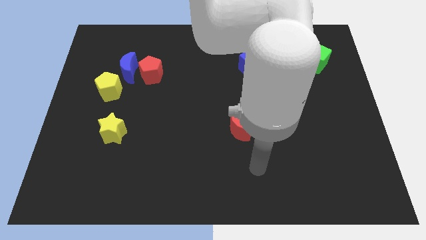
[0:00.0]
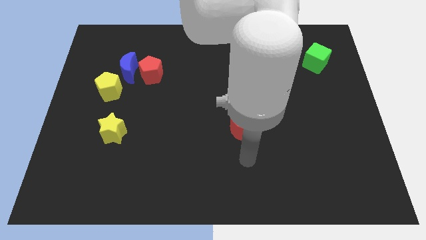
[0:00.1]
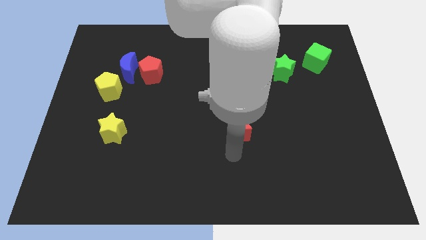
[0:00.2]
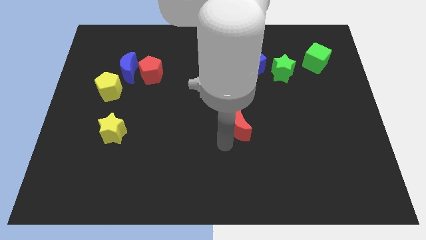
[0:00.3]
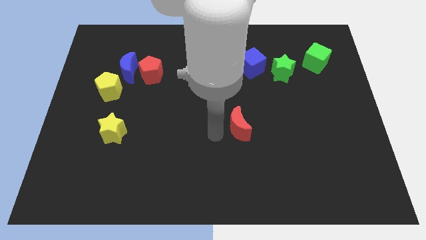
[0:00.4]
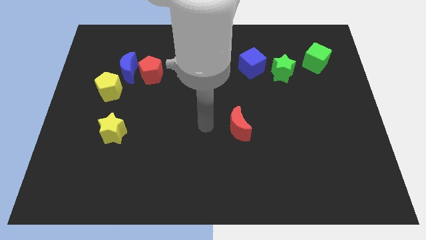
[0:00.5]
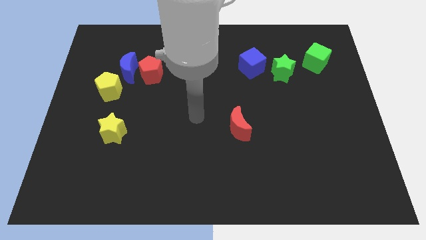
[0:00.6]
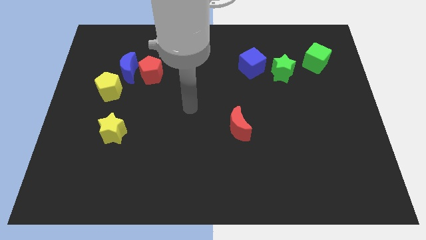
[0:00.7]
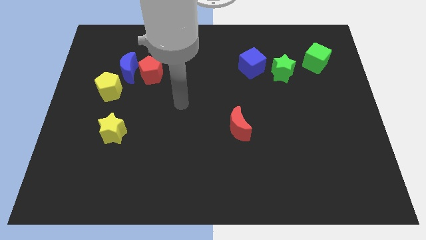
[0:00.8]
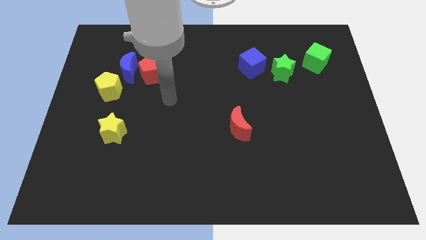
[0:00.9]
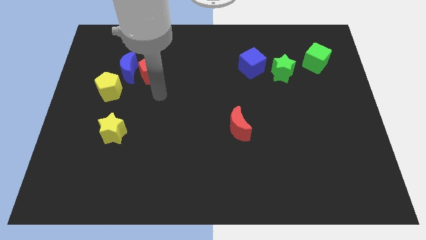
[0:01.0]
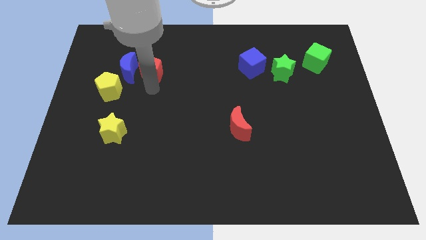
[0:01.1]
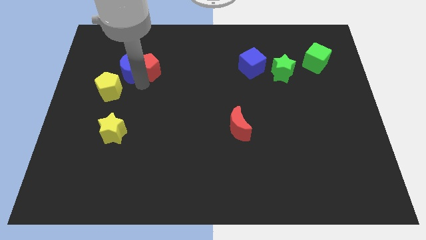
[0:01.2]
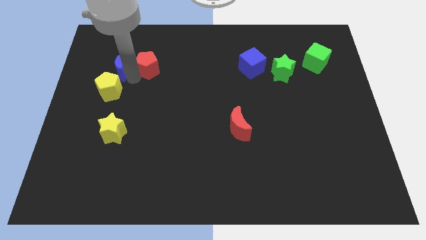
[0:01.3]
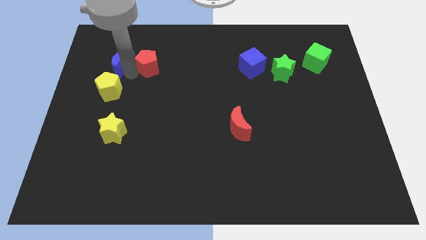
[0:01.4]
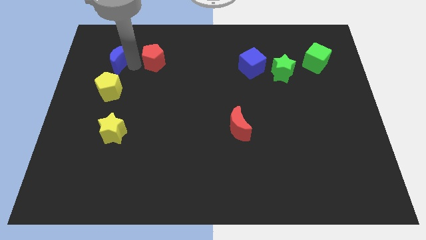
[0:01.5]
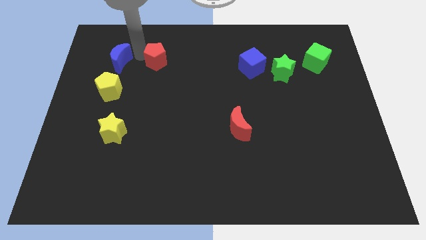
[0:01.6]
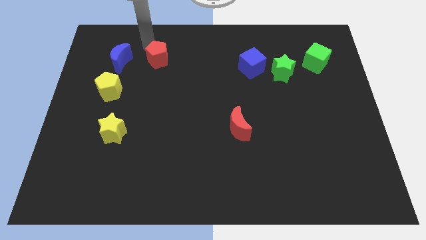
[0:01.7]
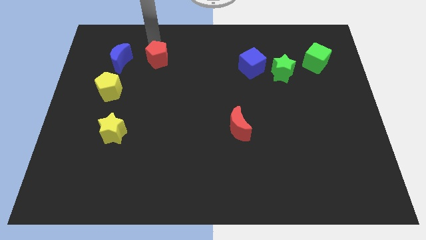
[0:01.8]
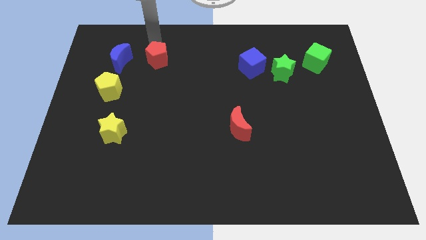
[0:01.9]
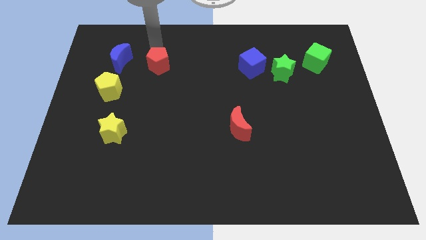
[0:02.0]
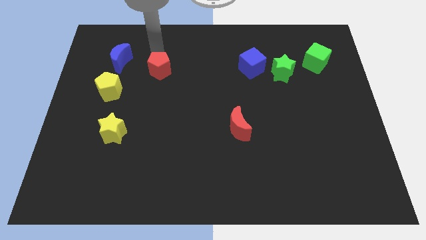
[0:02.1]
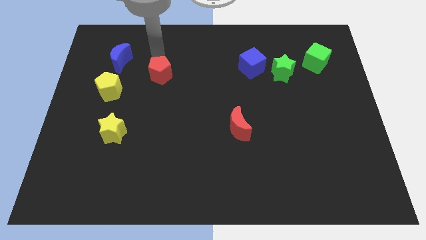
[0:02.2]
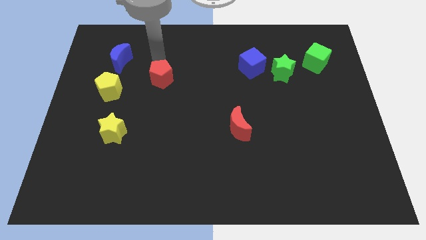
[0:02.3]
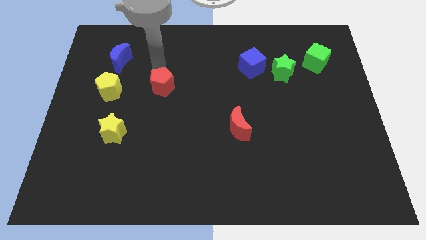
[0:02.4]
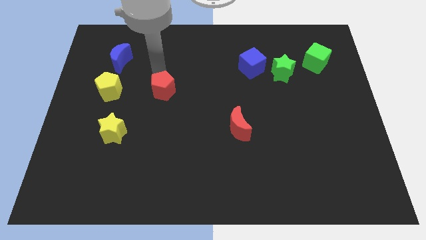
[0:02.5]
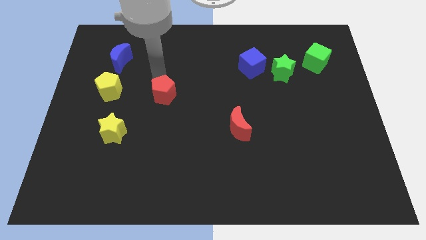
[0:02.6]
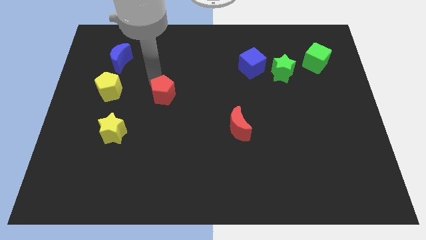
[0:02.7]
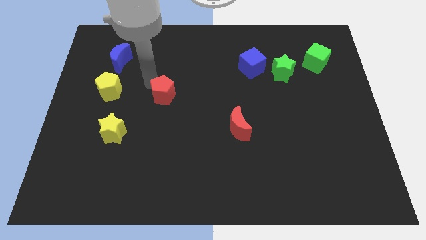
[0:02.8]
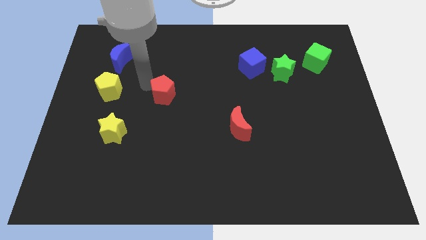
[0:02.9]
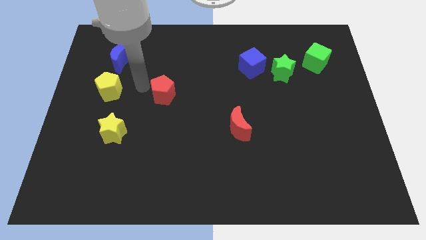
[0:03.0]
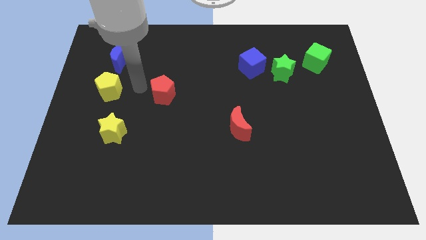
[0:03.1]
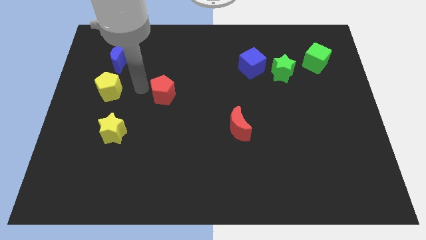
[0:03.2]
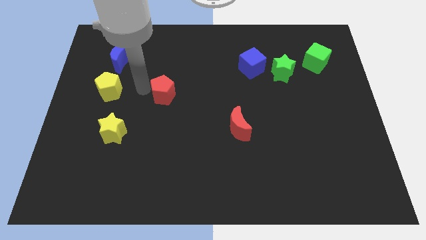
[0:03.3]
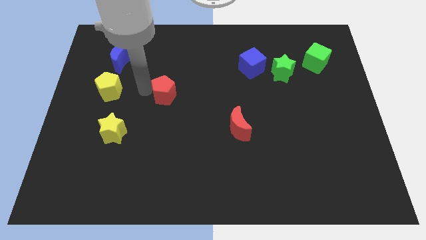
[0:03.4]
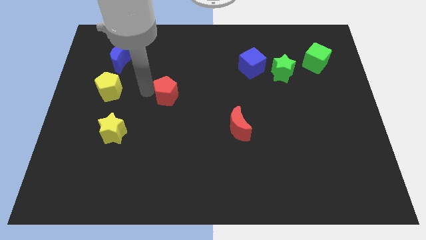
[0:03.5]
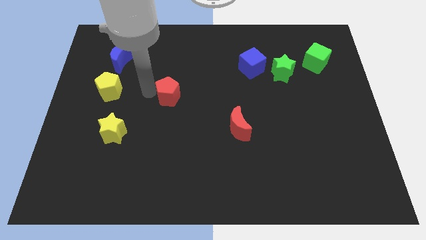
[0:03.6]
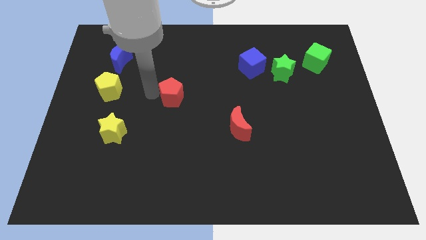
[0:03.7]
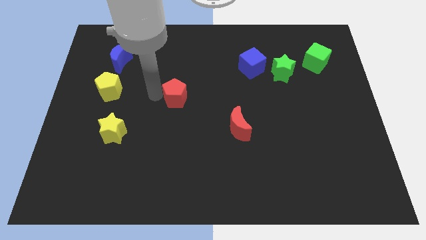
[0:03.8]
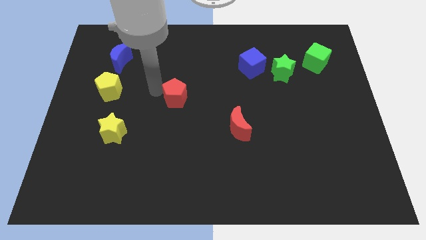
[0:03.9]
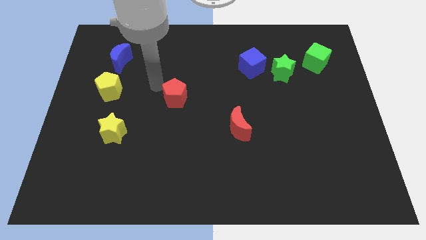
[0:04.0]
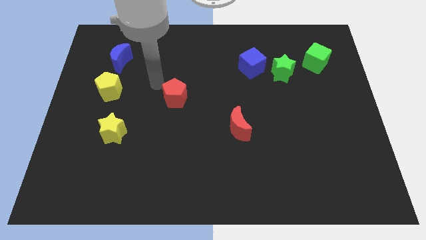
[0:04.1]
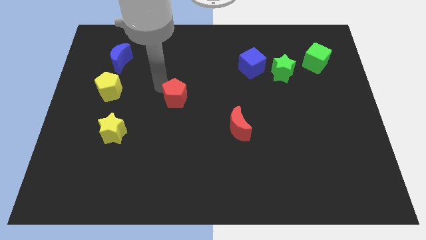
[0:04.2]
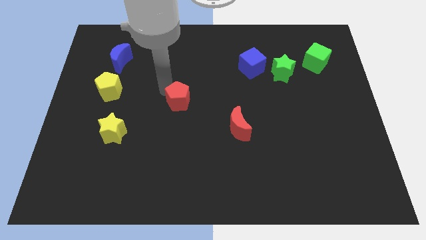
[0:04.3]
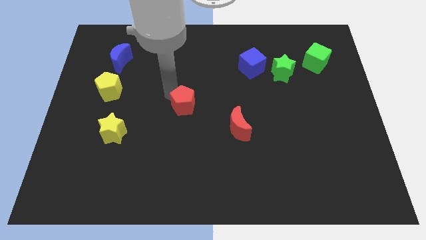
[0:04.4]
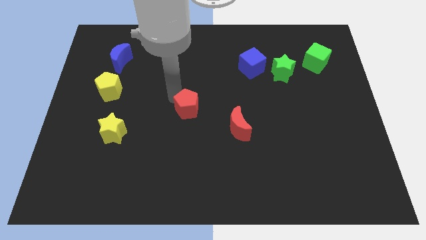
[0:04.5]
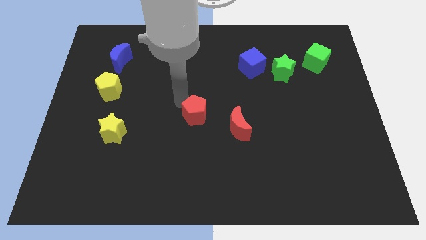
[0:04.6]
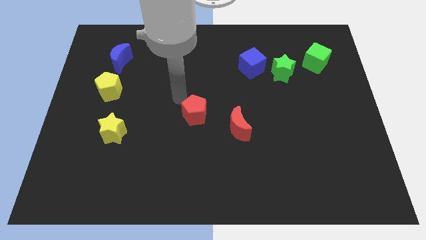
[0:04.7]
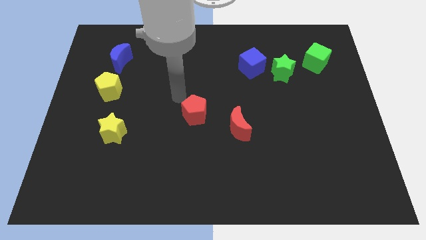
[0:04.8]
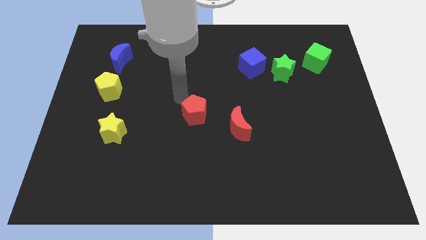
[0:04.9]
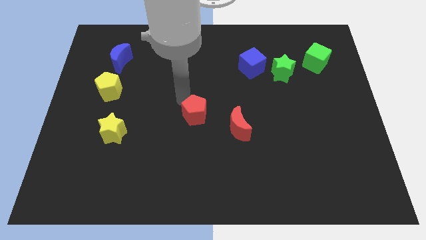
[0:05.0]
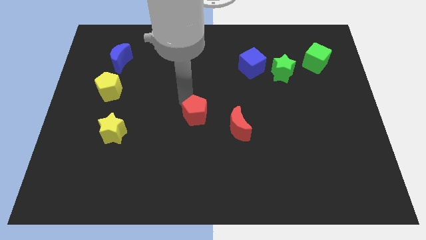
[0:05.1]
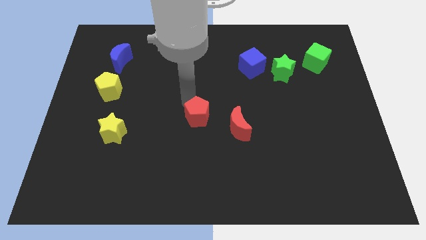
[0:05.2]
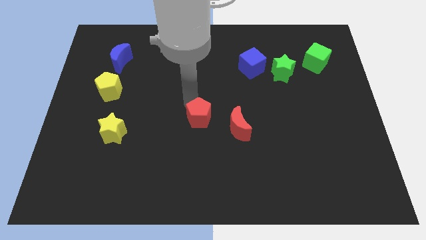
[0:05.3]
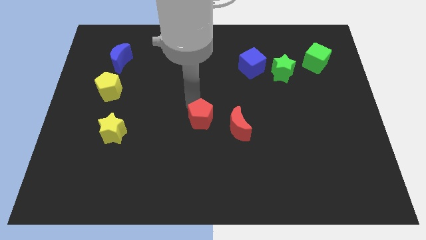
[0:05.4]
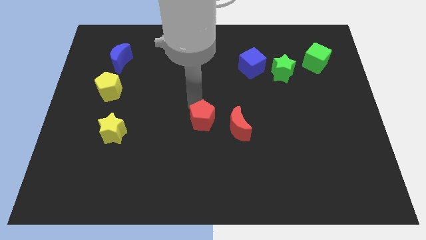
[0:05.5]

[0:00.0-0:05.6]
slide the red pentagon diagonally down and right

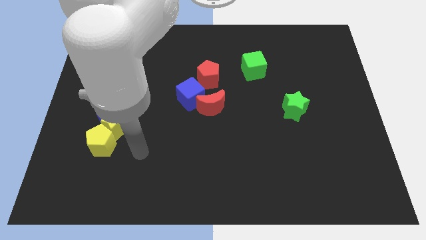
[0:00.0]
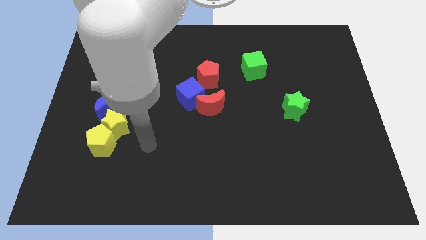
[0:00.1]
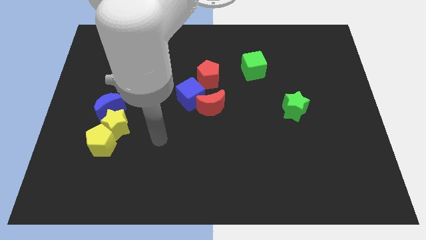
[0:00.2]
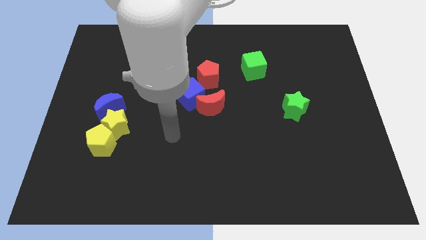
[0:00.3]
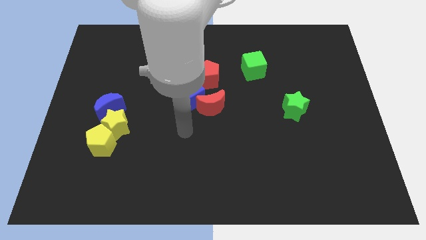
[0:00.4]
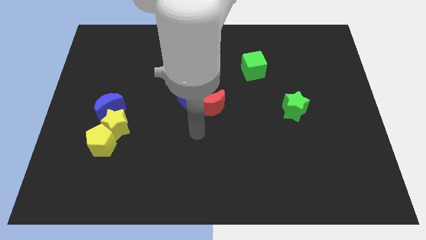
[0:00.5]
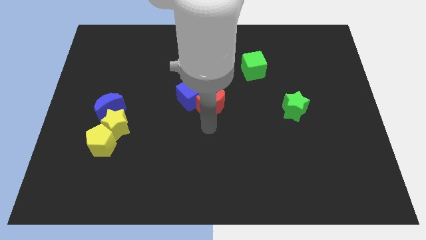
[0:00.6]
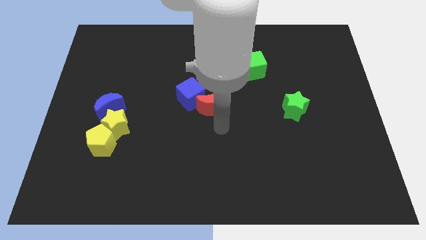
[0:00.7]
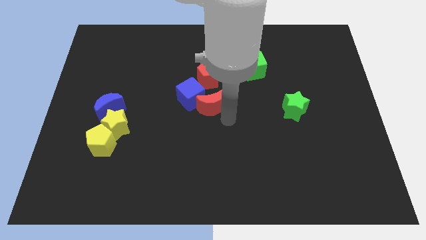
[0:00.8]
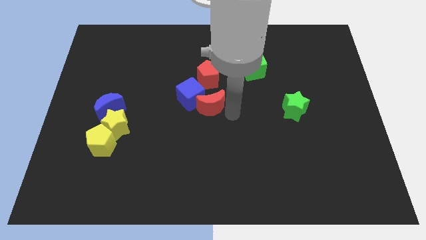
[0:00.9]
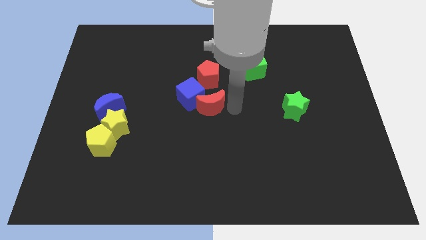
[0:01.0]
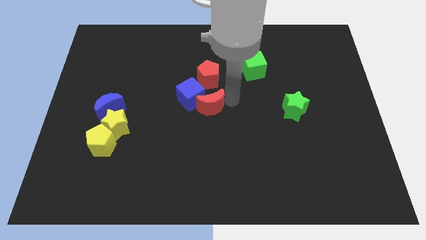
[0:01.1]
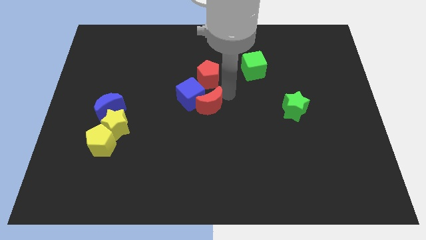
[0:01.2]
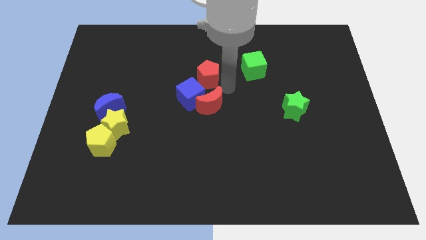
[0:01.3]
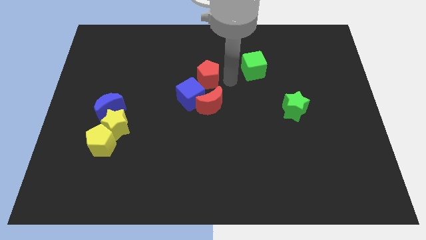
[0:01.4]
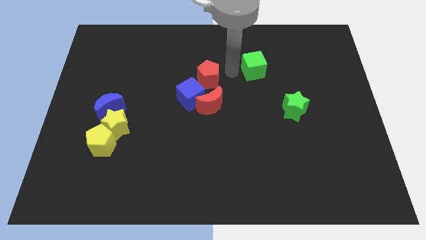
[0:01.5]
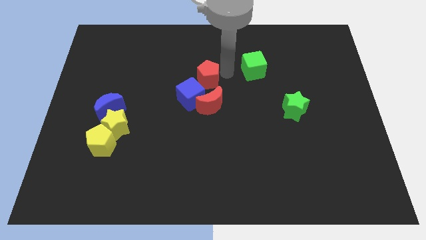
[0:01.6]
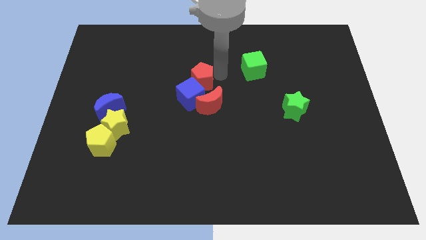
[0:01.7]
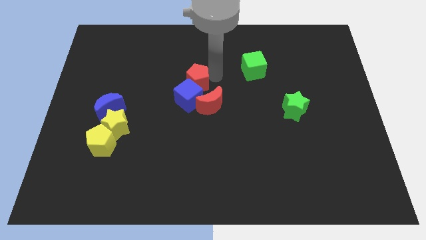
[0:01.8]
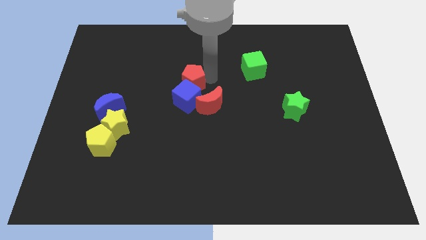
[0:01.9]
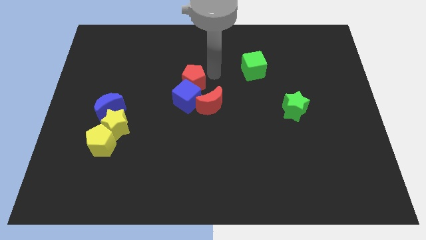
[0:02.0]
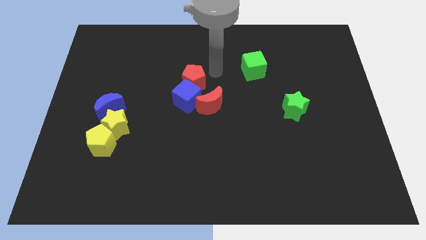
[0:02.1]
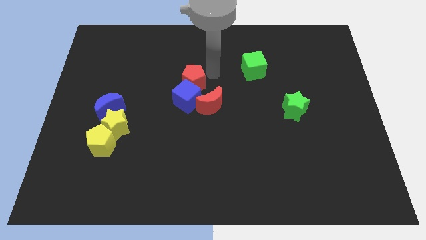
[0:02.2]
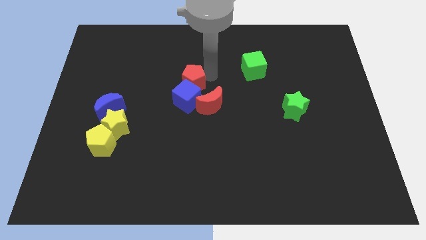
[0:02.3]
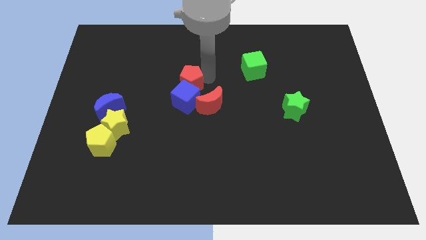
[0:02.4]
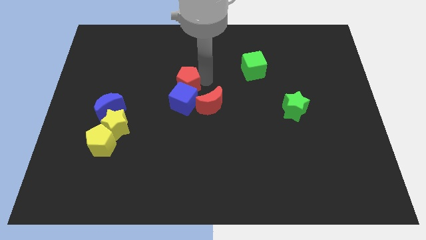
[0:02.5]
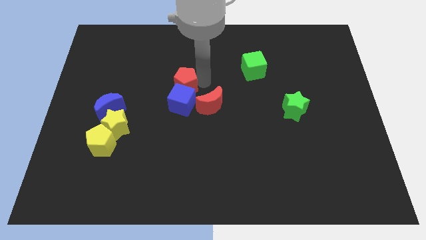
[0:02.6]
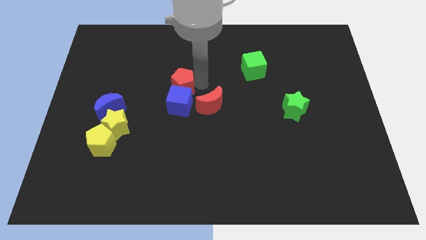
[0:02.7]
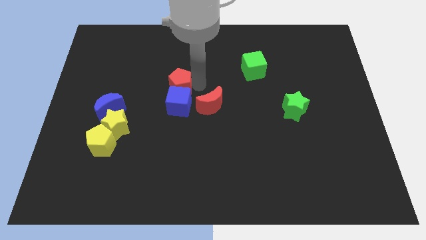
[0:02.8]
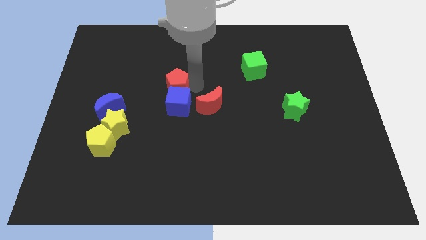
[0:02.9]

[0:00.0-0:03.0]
slide the red pentagon a bit diagonally downwards and to the left
